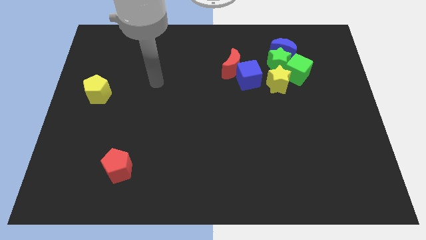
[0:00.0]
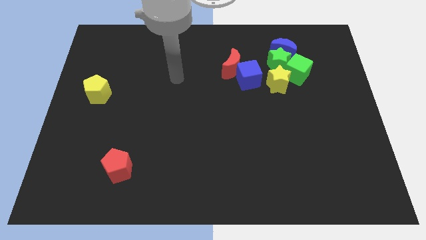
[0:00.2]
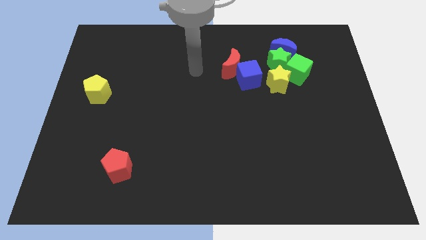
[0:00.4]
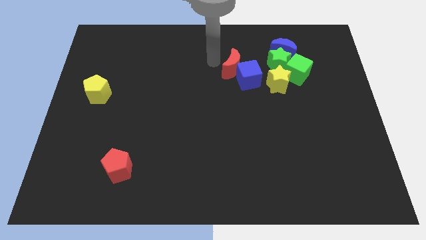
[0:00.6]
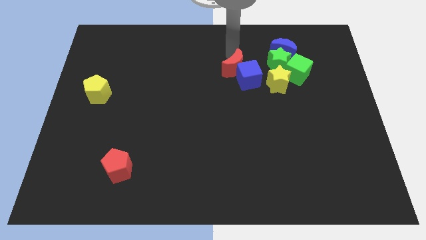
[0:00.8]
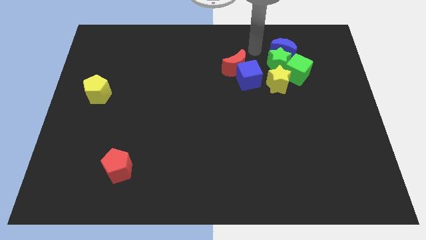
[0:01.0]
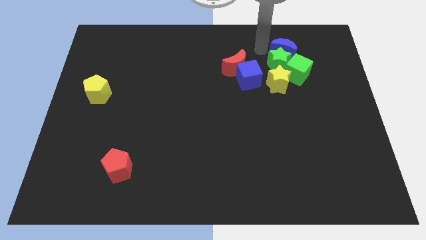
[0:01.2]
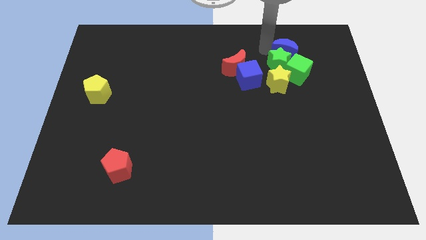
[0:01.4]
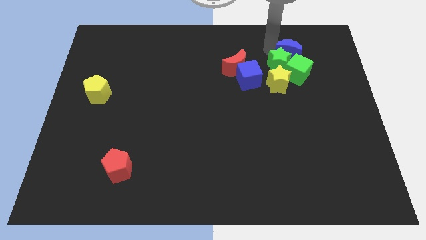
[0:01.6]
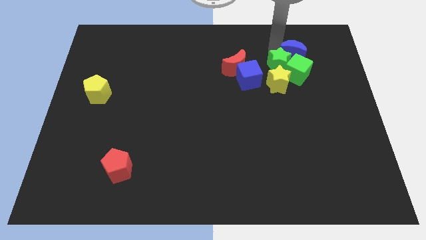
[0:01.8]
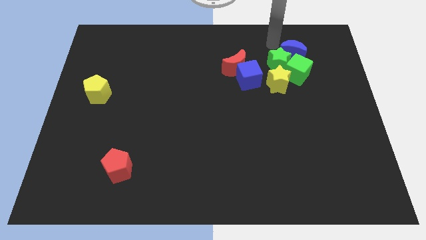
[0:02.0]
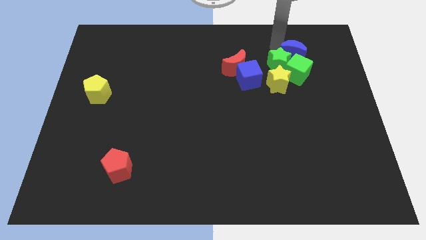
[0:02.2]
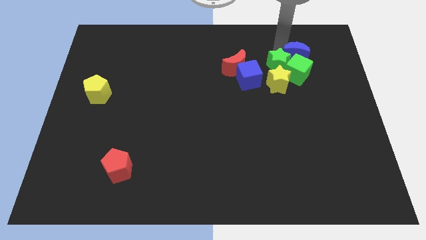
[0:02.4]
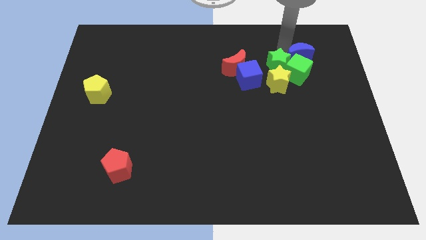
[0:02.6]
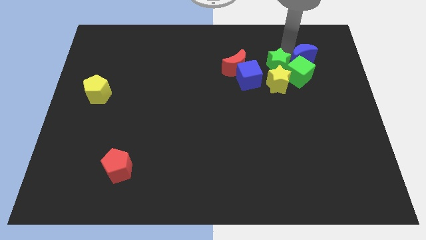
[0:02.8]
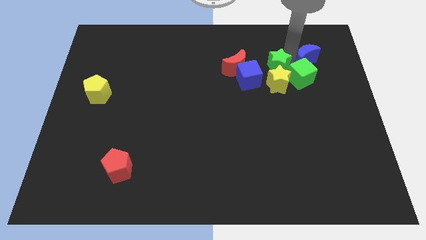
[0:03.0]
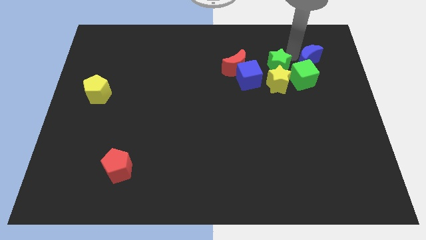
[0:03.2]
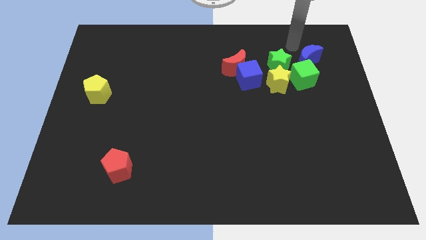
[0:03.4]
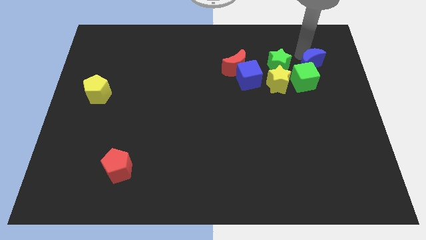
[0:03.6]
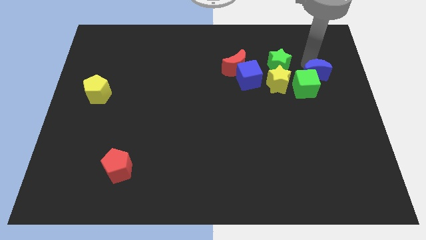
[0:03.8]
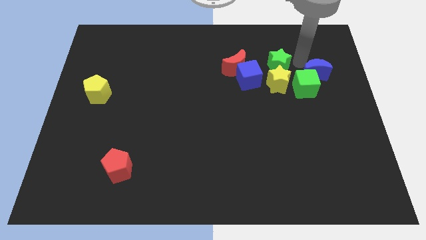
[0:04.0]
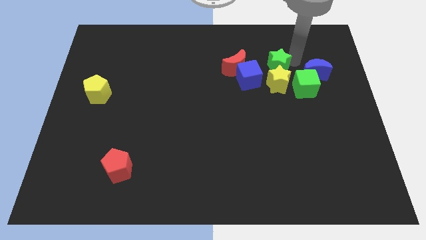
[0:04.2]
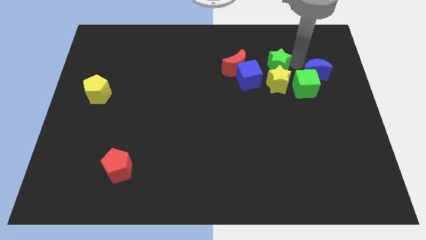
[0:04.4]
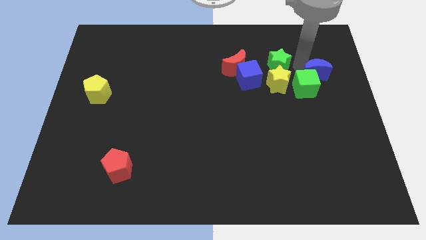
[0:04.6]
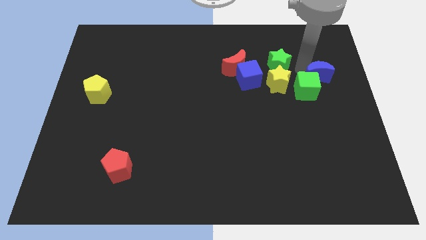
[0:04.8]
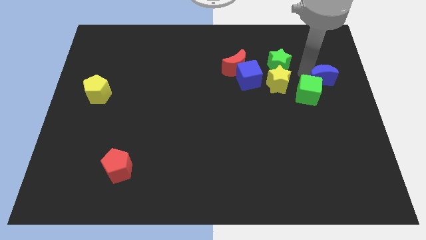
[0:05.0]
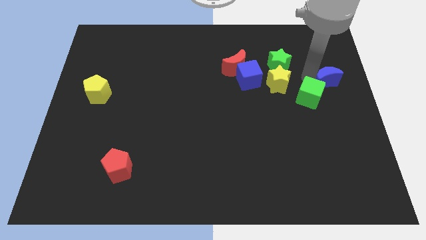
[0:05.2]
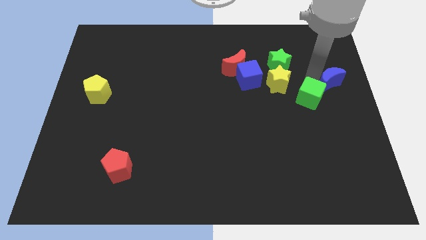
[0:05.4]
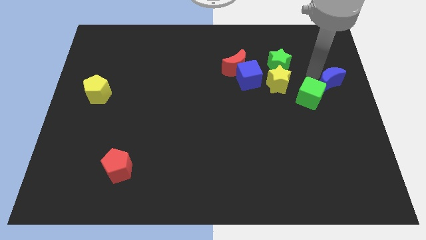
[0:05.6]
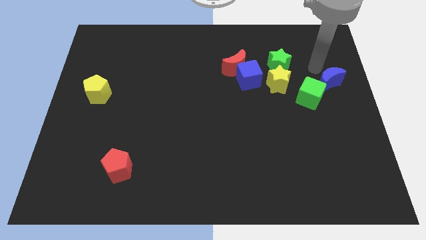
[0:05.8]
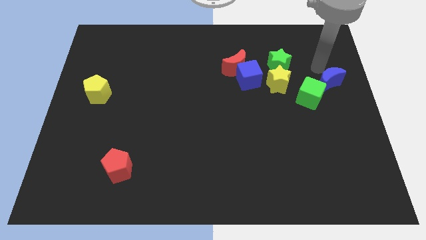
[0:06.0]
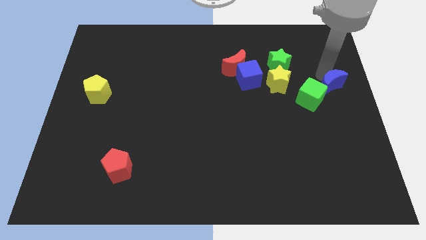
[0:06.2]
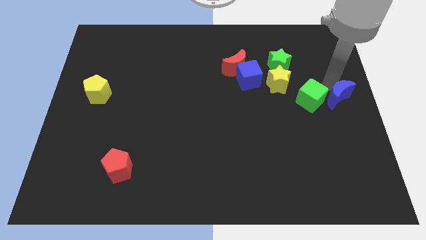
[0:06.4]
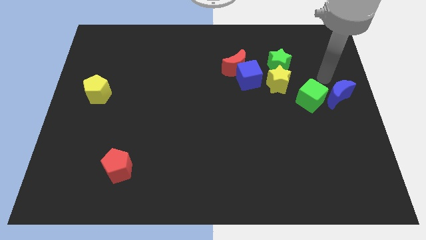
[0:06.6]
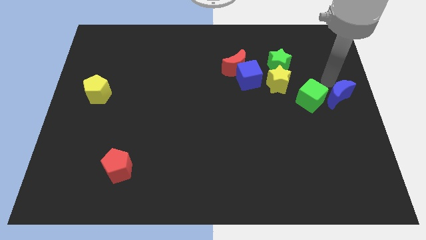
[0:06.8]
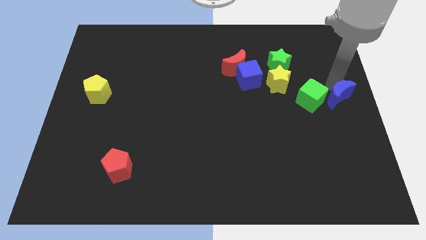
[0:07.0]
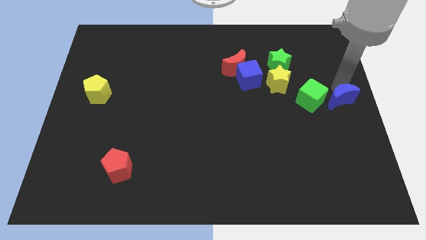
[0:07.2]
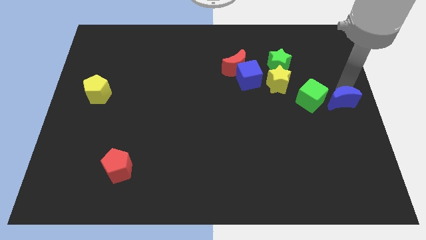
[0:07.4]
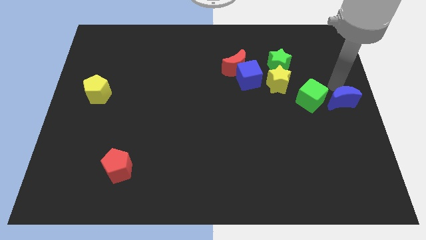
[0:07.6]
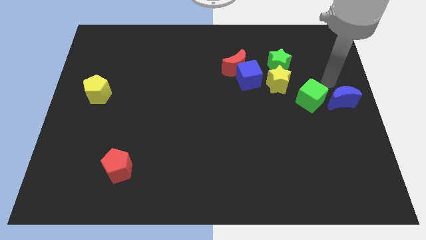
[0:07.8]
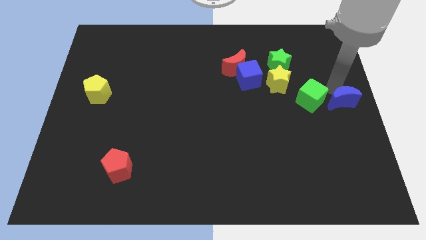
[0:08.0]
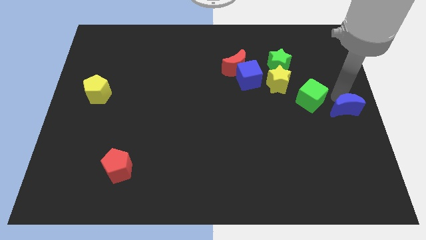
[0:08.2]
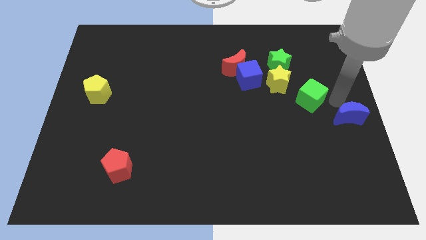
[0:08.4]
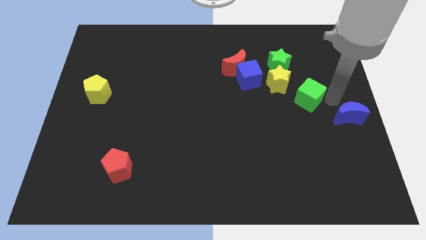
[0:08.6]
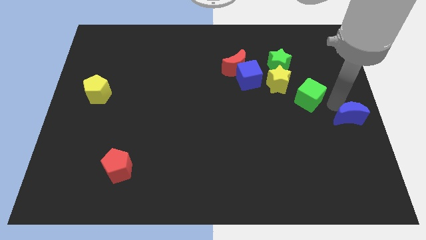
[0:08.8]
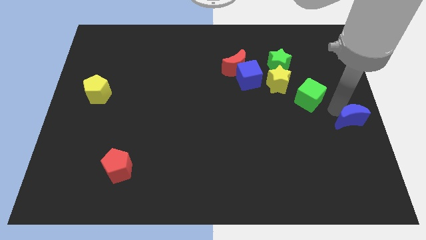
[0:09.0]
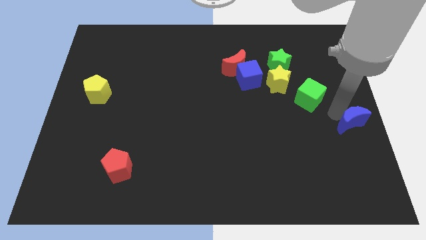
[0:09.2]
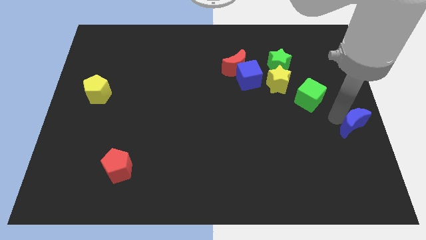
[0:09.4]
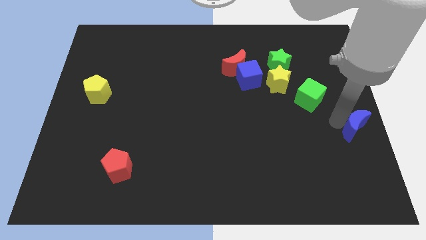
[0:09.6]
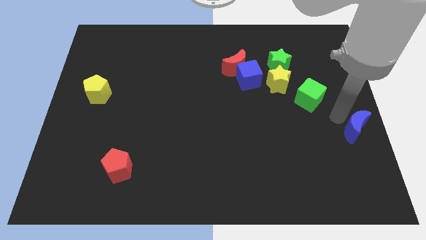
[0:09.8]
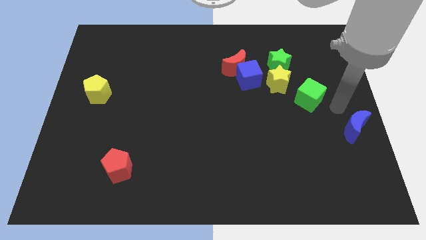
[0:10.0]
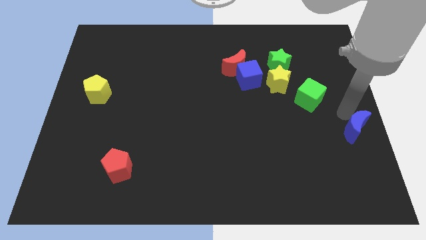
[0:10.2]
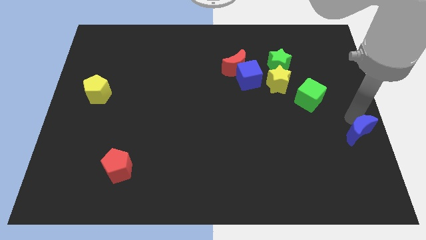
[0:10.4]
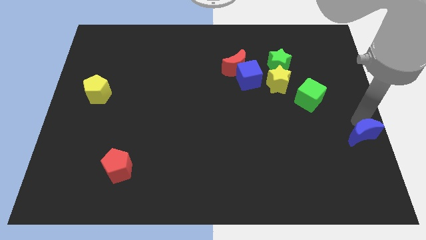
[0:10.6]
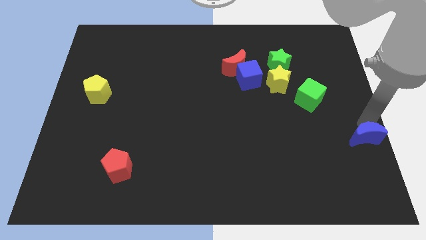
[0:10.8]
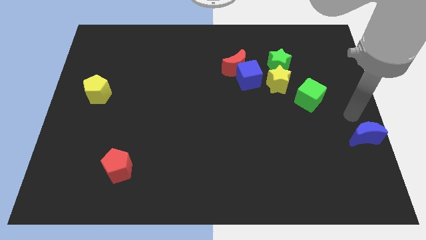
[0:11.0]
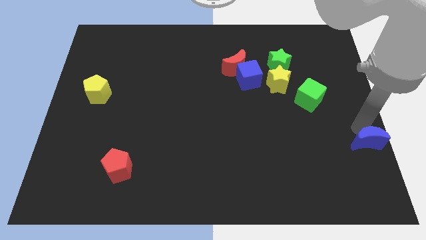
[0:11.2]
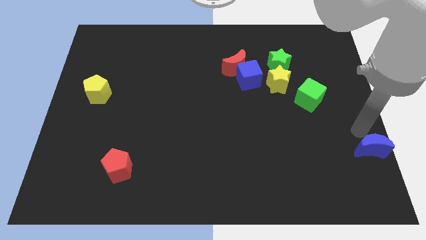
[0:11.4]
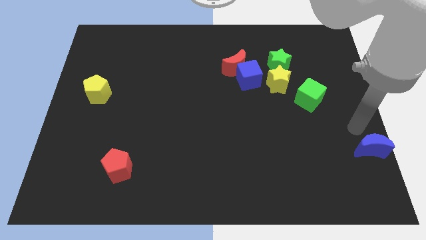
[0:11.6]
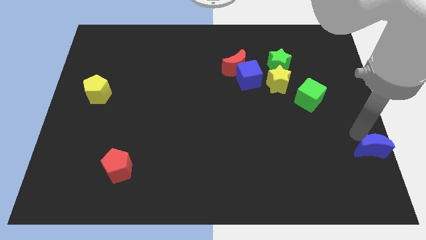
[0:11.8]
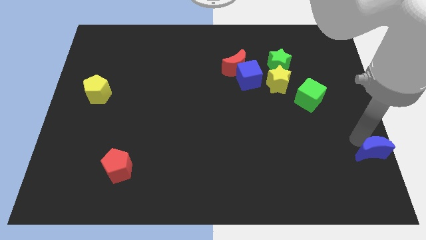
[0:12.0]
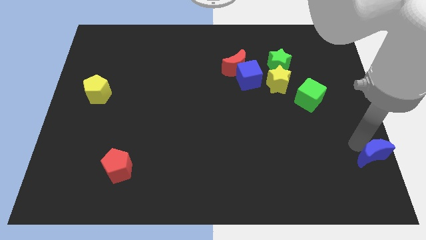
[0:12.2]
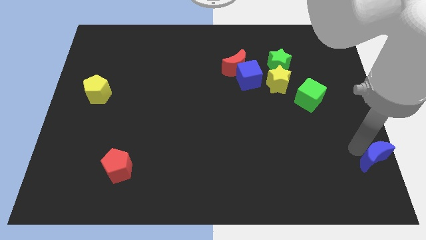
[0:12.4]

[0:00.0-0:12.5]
move the blue moon to the bottom right of the board
